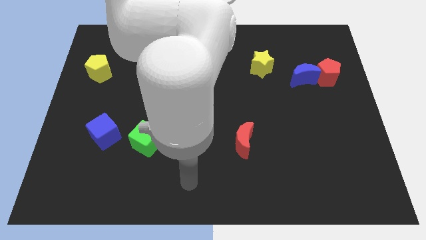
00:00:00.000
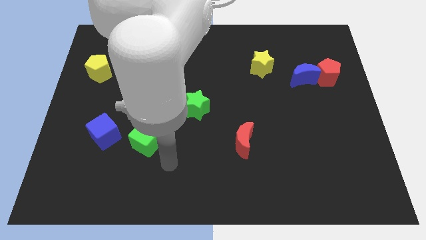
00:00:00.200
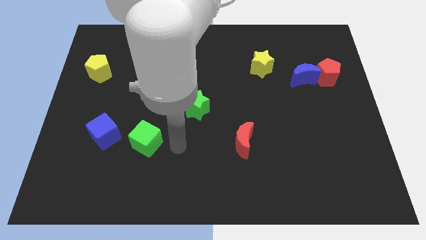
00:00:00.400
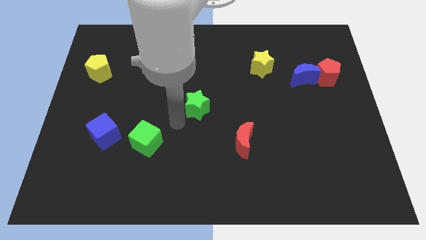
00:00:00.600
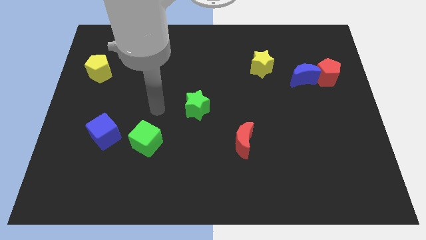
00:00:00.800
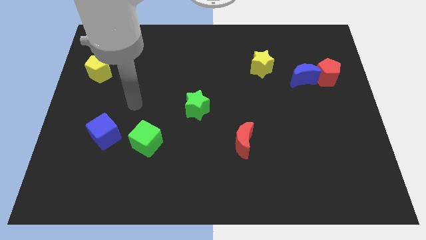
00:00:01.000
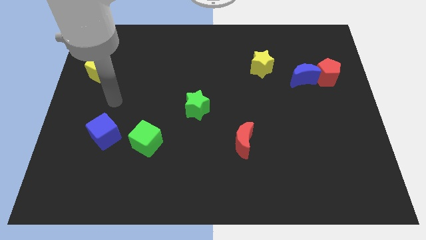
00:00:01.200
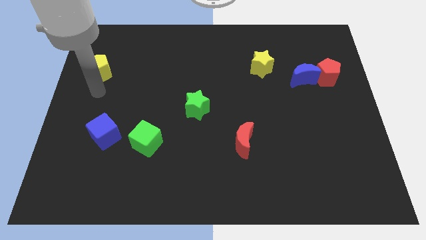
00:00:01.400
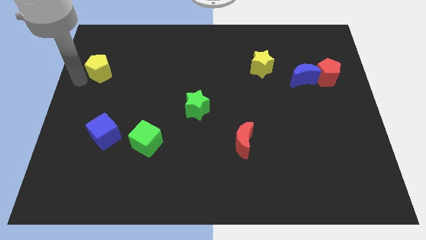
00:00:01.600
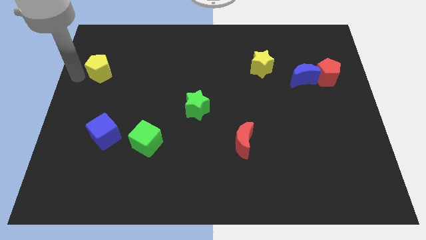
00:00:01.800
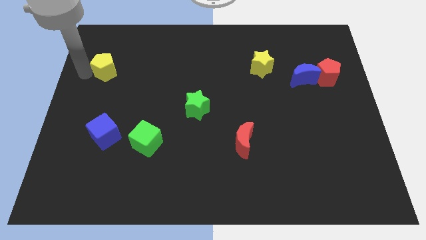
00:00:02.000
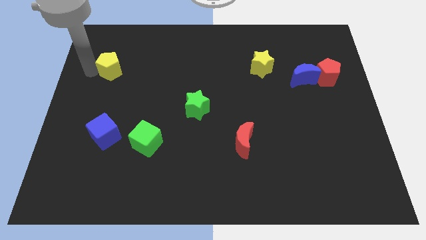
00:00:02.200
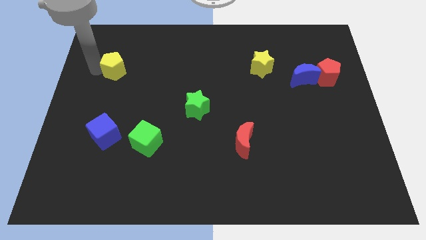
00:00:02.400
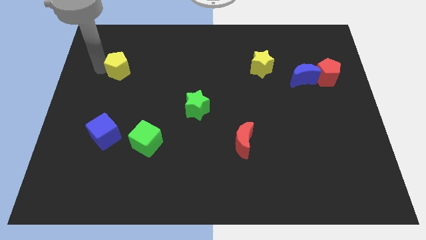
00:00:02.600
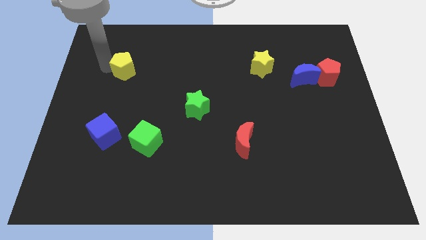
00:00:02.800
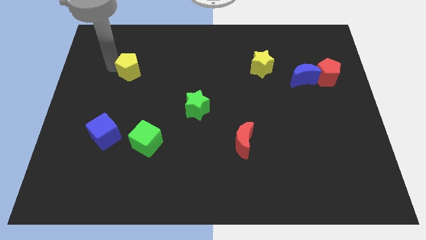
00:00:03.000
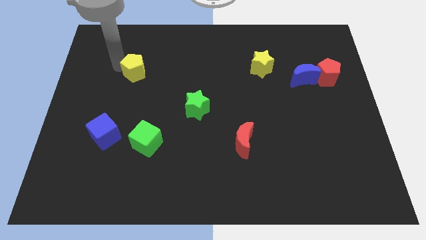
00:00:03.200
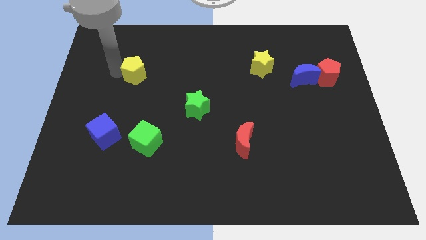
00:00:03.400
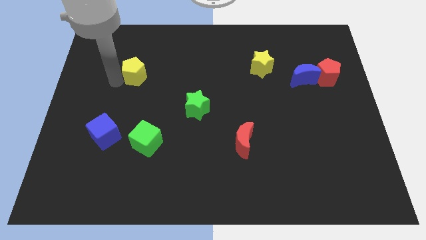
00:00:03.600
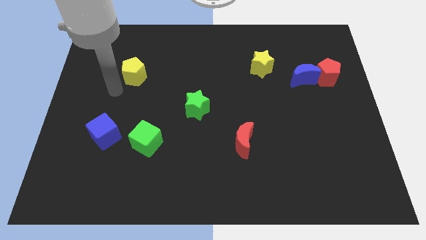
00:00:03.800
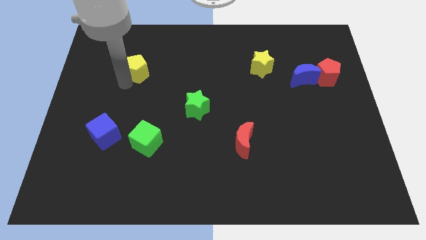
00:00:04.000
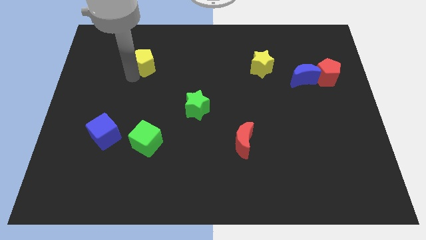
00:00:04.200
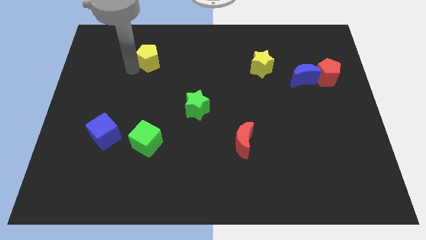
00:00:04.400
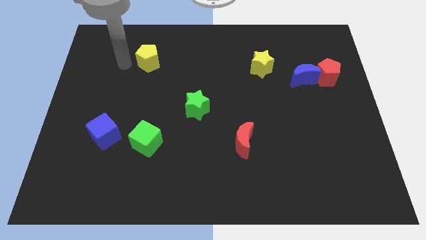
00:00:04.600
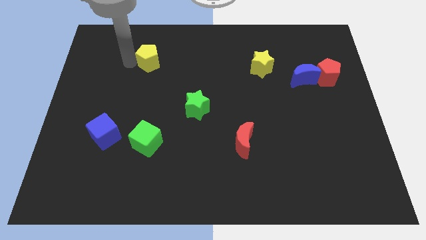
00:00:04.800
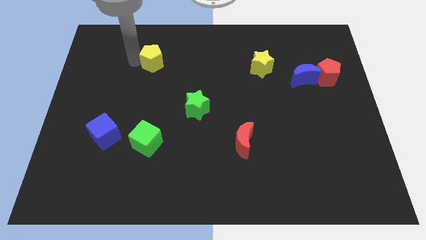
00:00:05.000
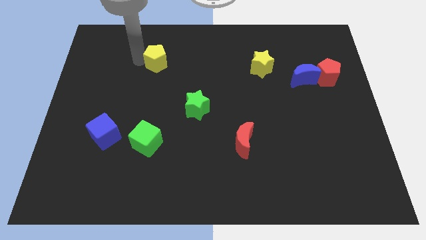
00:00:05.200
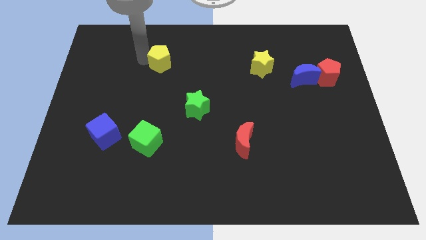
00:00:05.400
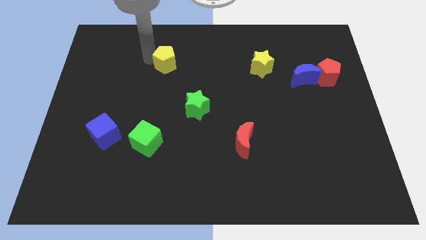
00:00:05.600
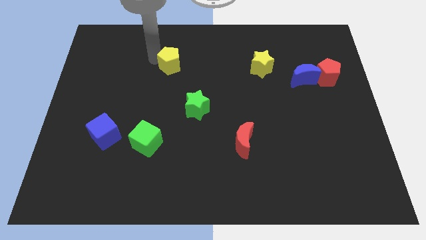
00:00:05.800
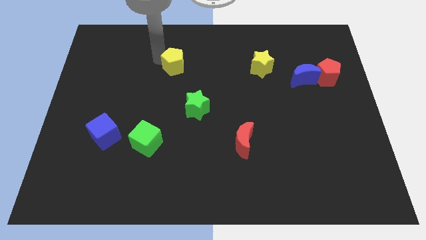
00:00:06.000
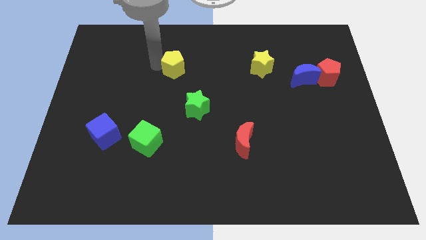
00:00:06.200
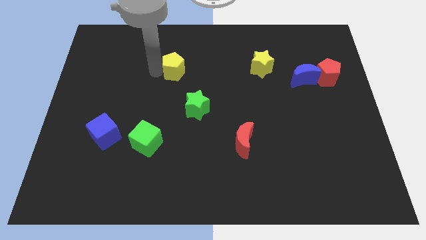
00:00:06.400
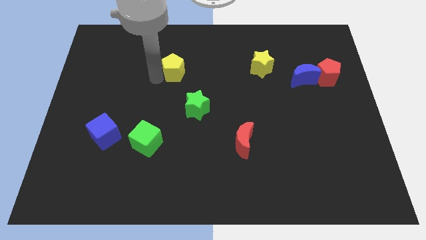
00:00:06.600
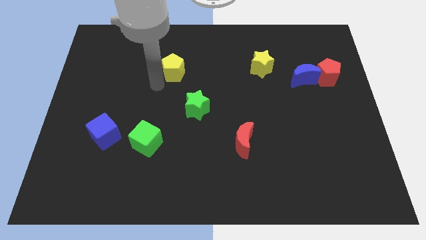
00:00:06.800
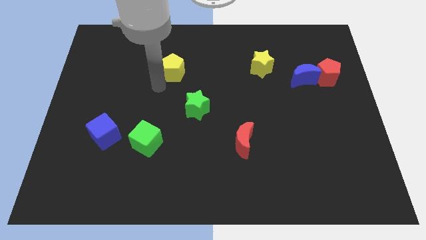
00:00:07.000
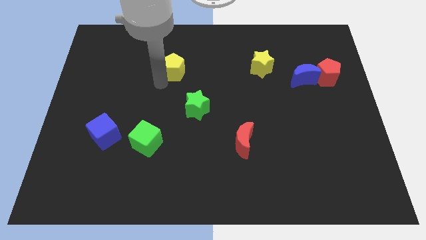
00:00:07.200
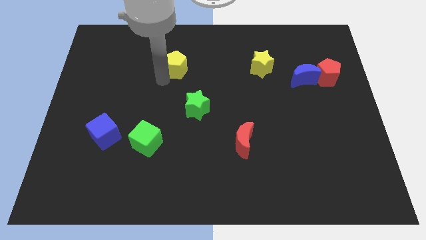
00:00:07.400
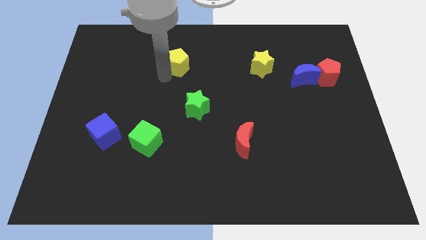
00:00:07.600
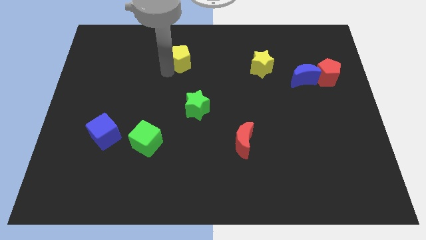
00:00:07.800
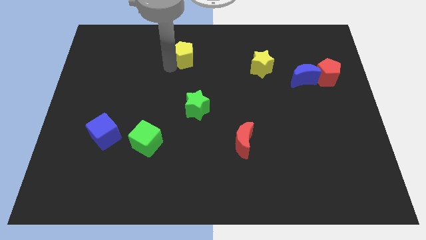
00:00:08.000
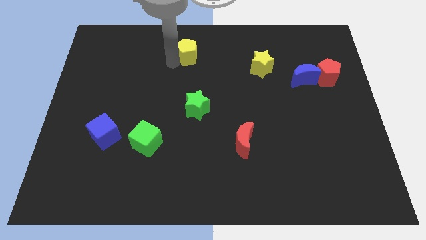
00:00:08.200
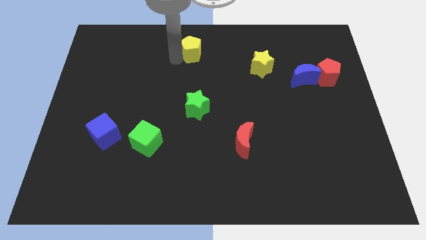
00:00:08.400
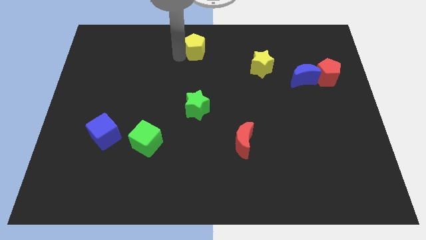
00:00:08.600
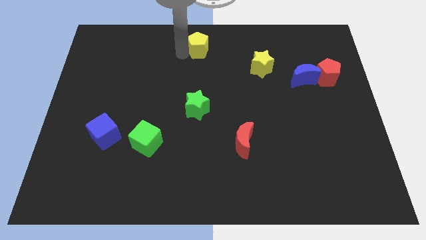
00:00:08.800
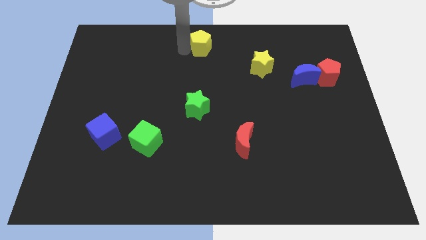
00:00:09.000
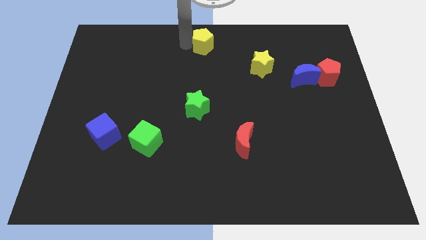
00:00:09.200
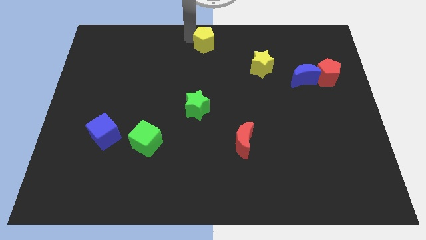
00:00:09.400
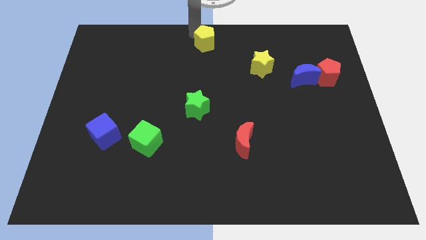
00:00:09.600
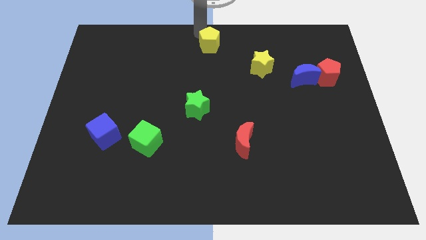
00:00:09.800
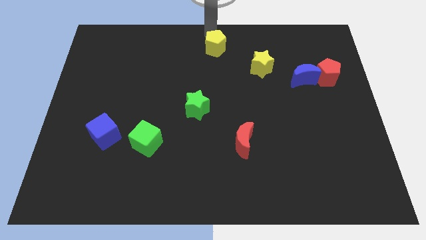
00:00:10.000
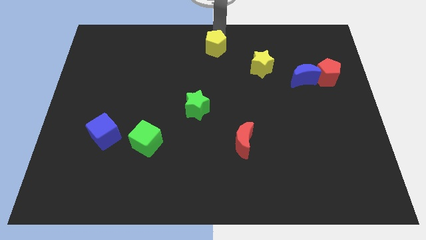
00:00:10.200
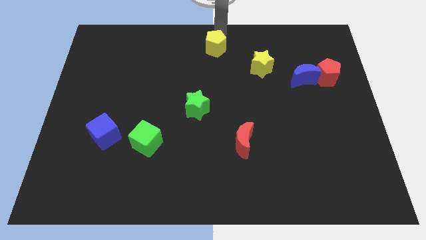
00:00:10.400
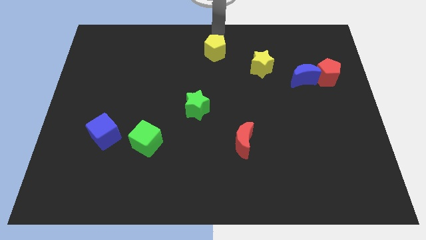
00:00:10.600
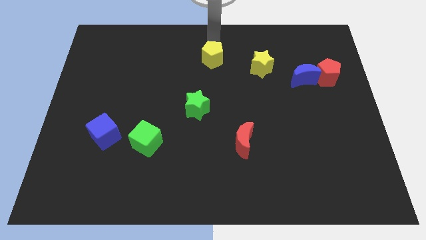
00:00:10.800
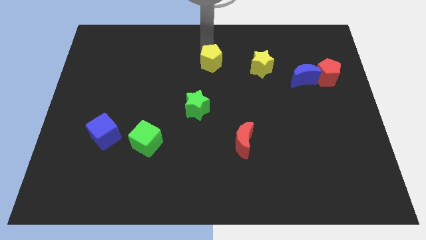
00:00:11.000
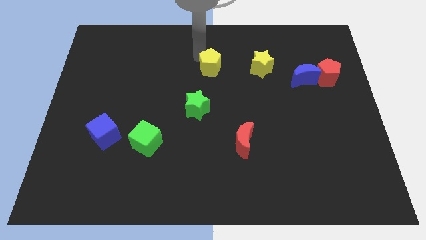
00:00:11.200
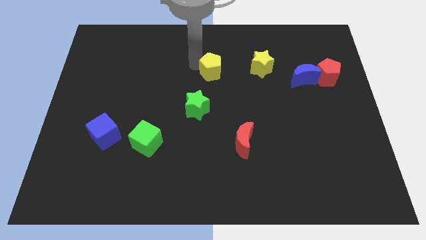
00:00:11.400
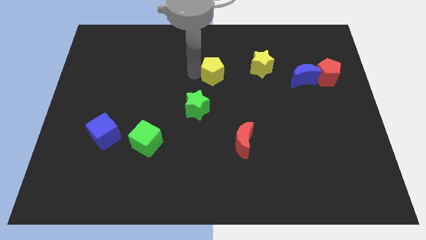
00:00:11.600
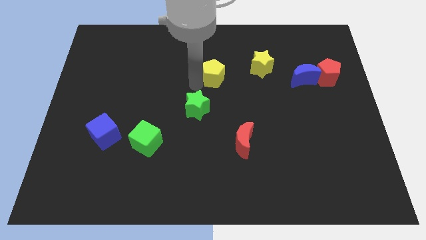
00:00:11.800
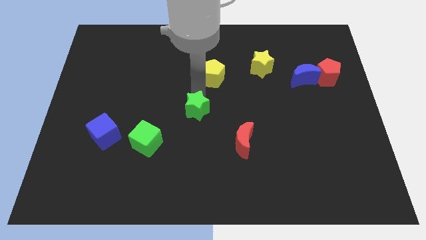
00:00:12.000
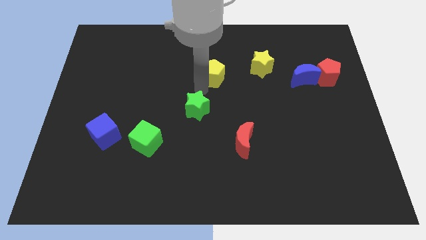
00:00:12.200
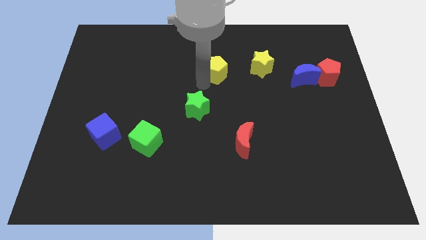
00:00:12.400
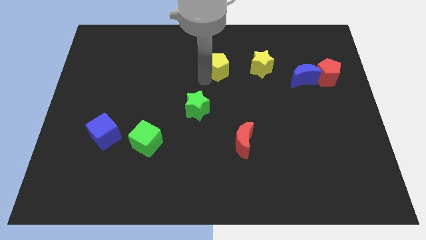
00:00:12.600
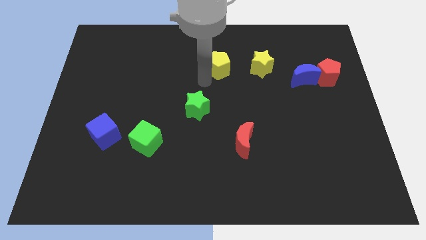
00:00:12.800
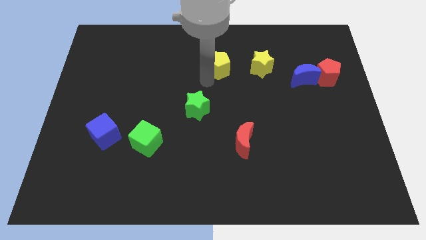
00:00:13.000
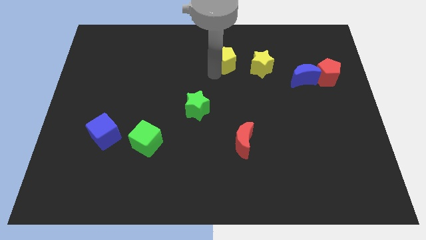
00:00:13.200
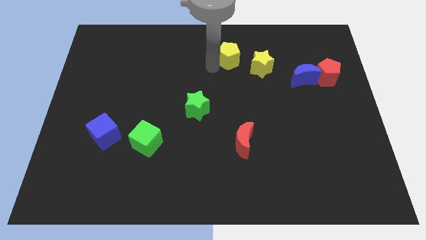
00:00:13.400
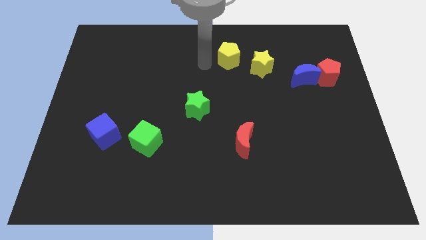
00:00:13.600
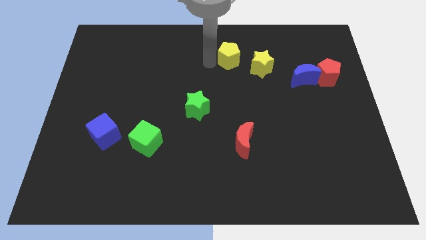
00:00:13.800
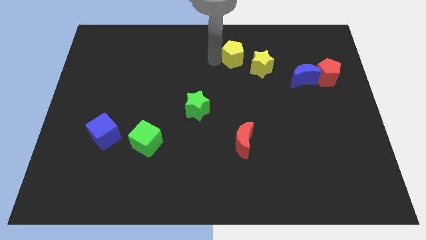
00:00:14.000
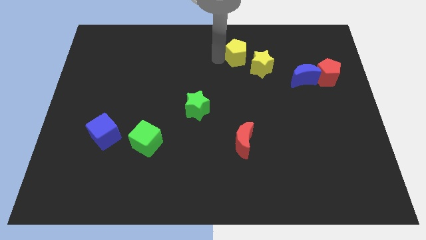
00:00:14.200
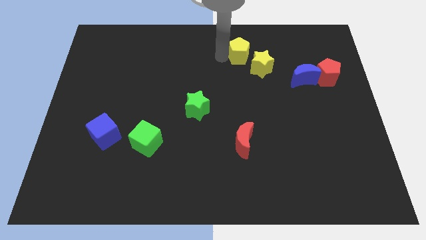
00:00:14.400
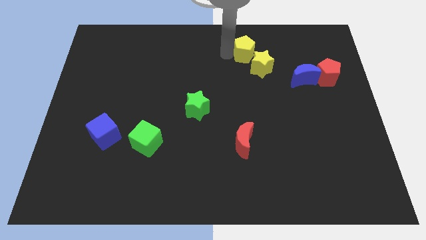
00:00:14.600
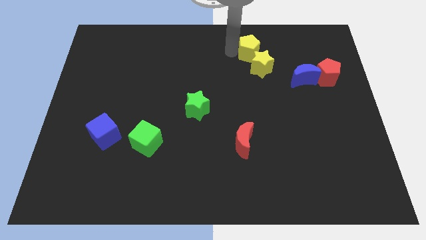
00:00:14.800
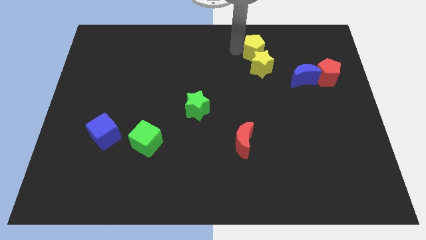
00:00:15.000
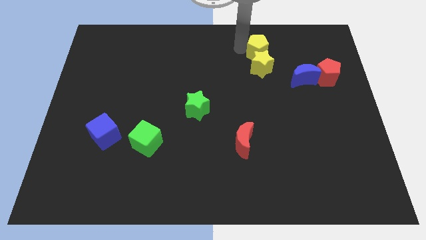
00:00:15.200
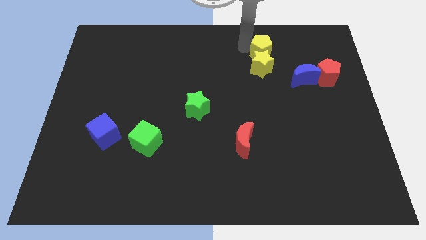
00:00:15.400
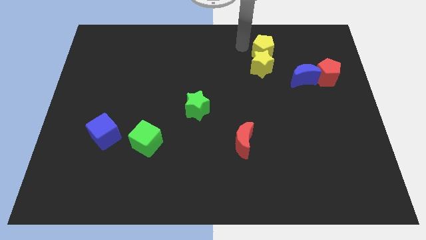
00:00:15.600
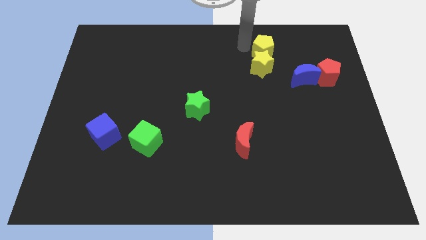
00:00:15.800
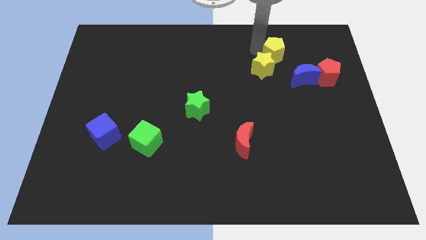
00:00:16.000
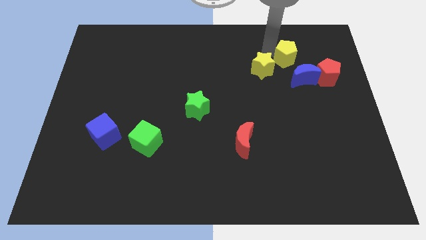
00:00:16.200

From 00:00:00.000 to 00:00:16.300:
put the yellow pentagon to the top left side of the red pentagon
